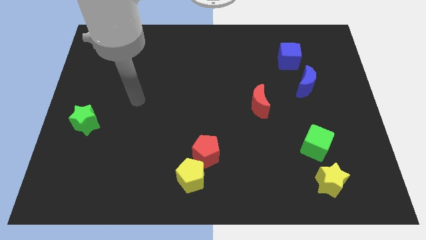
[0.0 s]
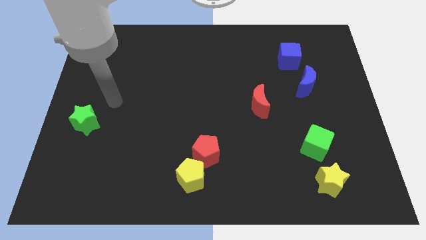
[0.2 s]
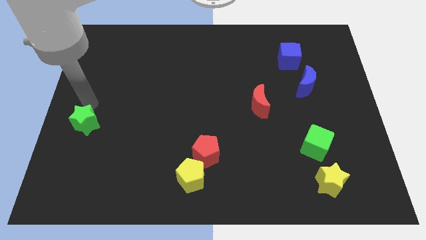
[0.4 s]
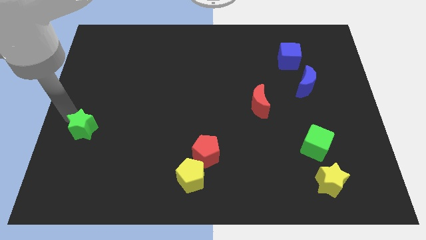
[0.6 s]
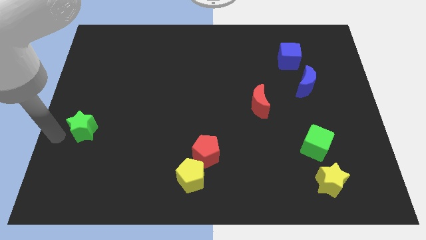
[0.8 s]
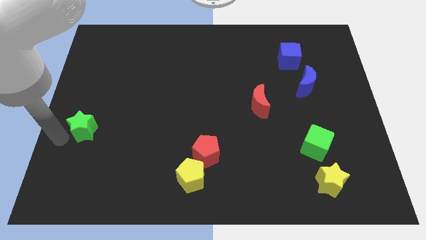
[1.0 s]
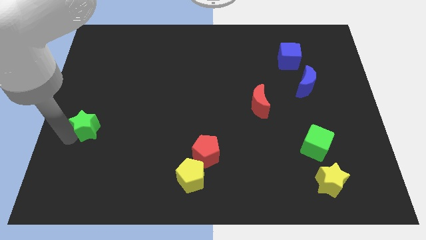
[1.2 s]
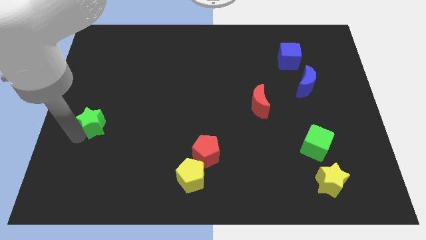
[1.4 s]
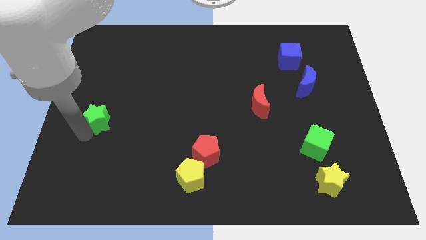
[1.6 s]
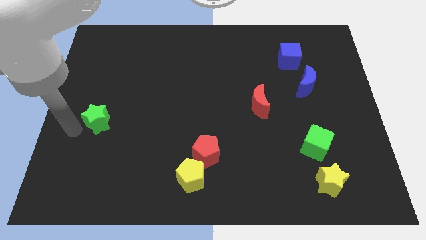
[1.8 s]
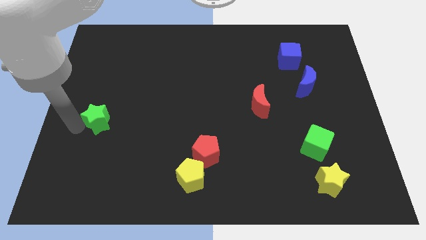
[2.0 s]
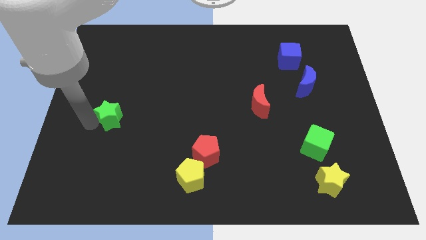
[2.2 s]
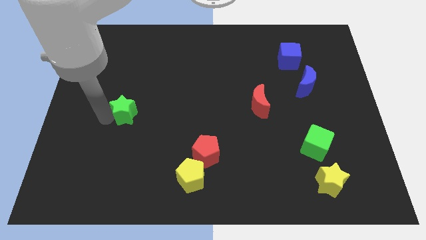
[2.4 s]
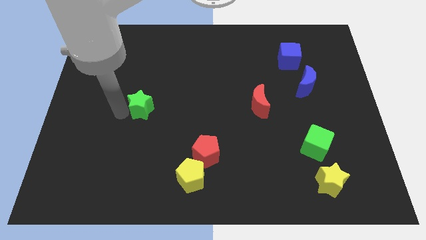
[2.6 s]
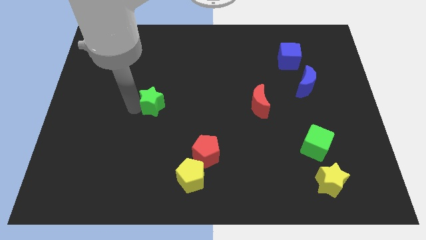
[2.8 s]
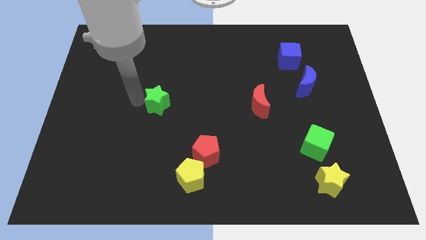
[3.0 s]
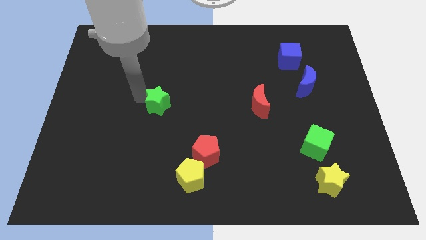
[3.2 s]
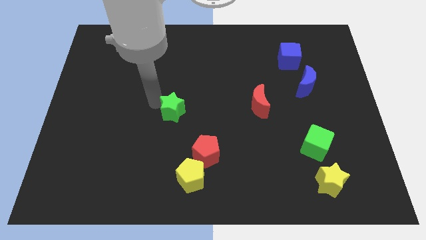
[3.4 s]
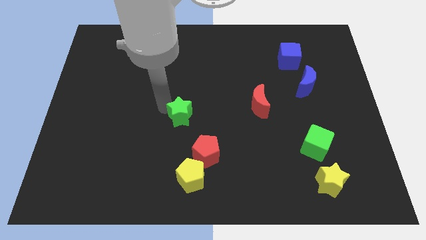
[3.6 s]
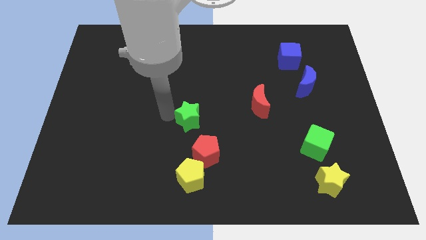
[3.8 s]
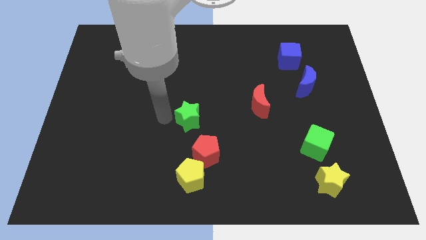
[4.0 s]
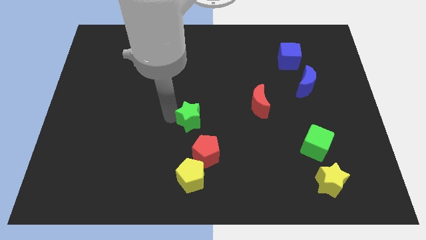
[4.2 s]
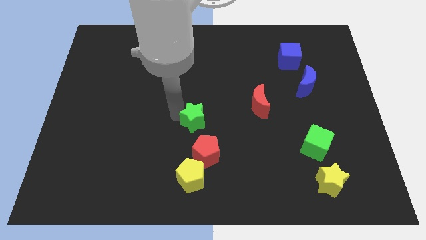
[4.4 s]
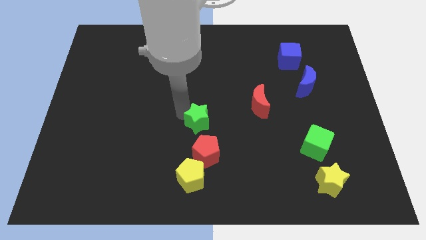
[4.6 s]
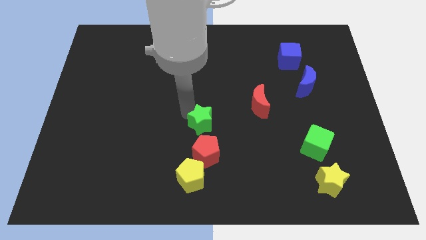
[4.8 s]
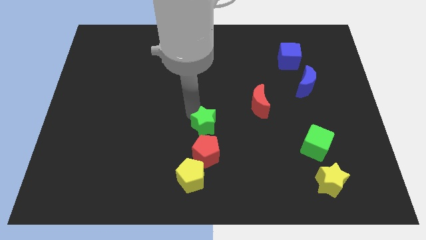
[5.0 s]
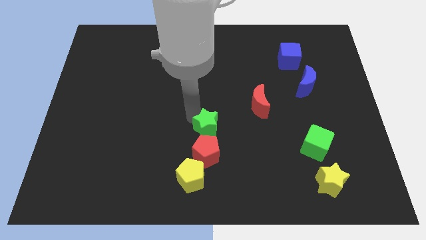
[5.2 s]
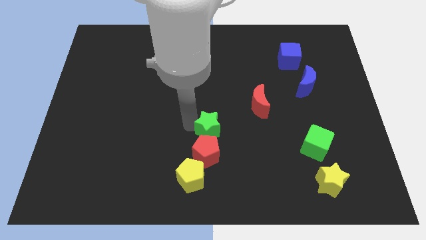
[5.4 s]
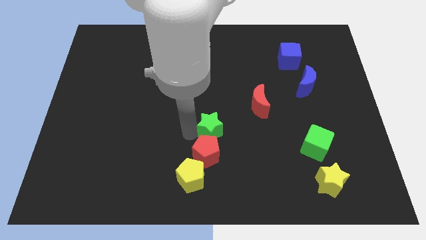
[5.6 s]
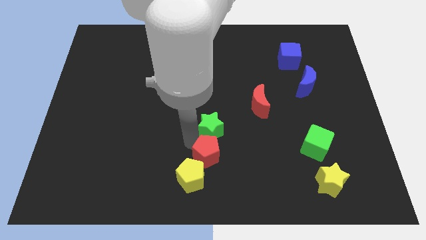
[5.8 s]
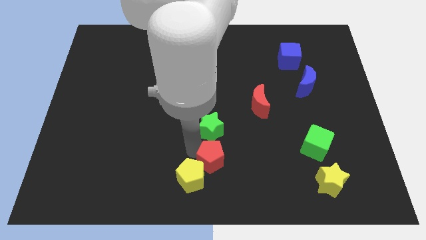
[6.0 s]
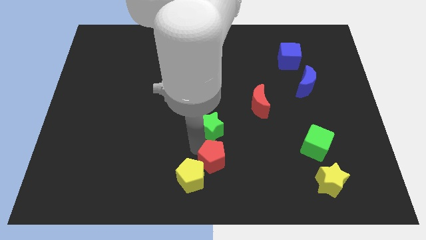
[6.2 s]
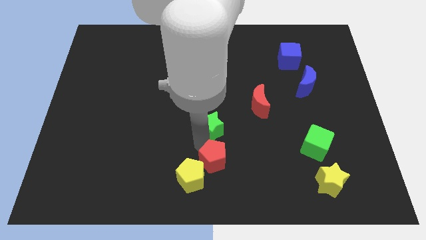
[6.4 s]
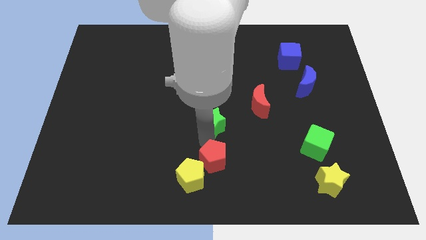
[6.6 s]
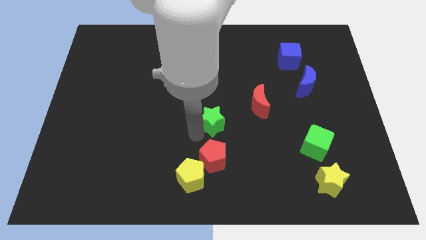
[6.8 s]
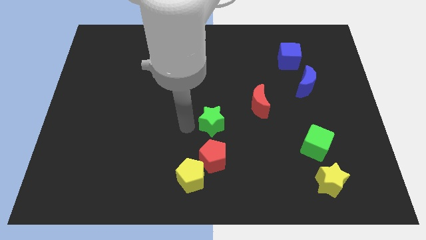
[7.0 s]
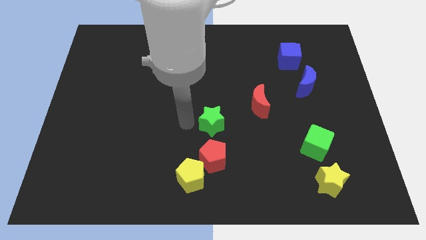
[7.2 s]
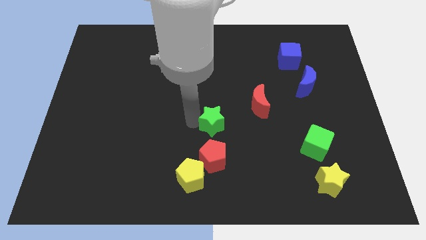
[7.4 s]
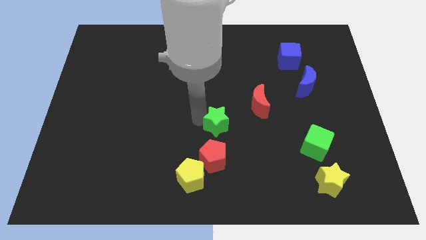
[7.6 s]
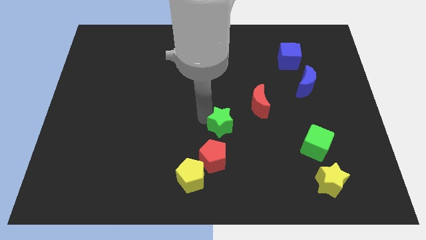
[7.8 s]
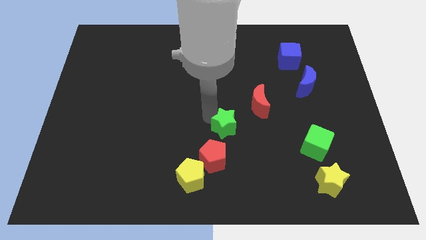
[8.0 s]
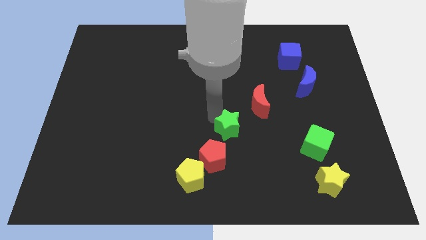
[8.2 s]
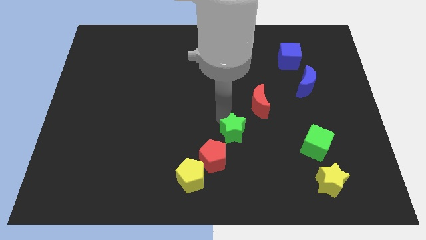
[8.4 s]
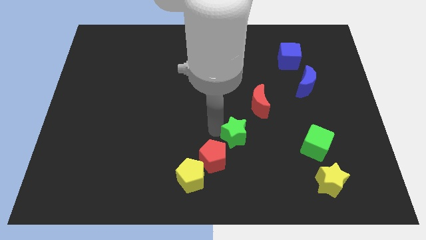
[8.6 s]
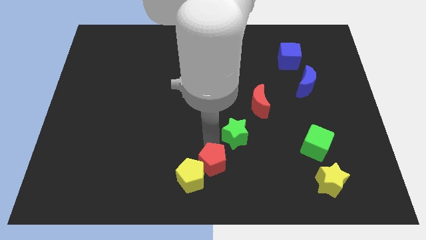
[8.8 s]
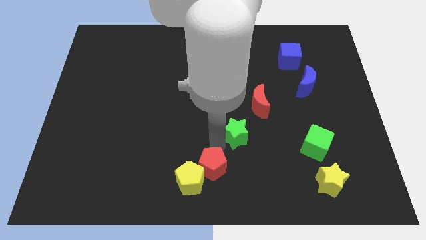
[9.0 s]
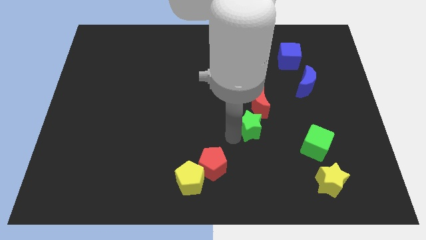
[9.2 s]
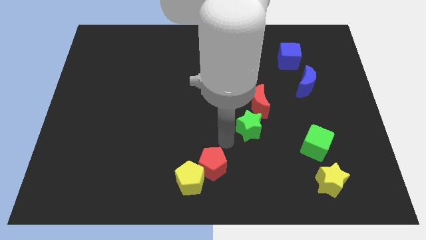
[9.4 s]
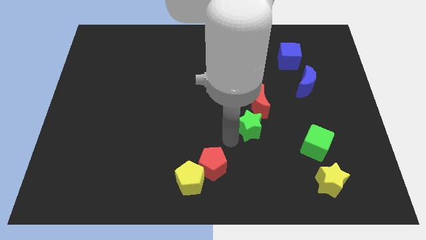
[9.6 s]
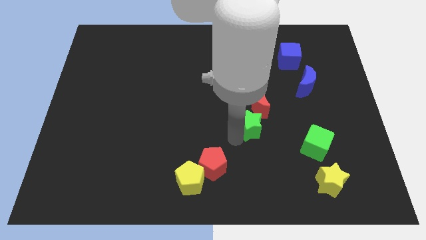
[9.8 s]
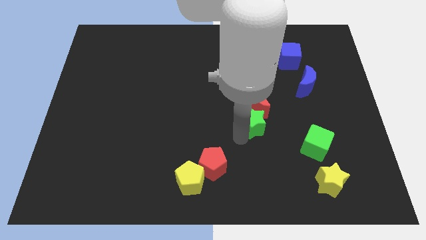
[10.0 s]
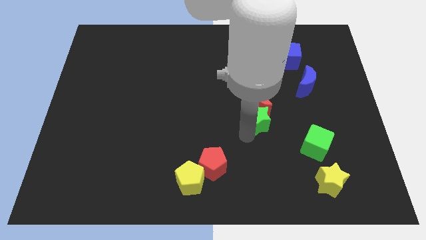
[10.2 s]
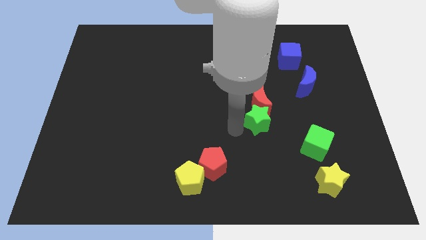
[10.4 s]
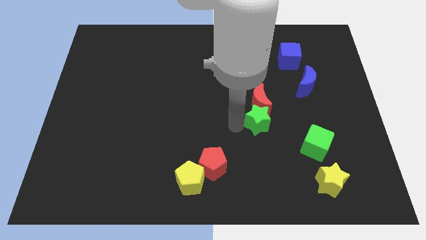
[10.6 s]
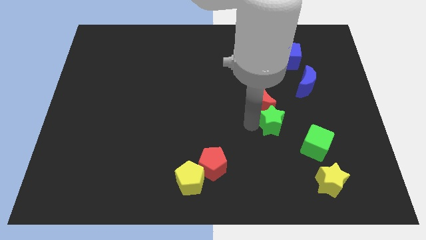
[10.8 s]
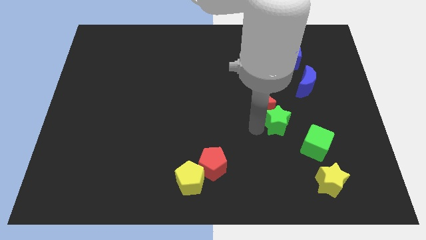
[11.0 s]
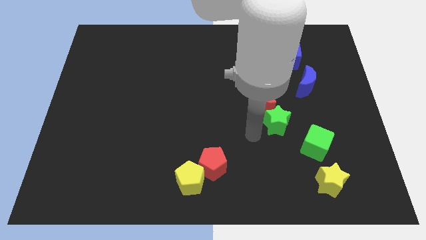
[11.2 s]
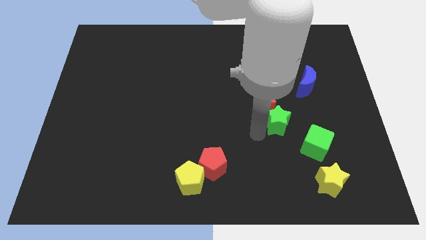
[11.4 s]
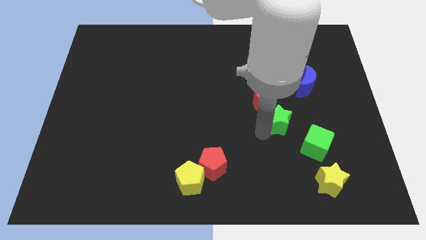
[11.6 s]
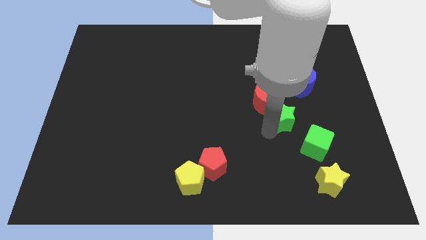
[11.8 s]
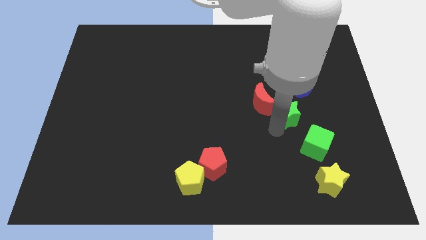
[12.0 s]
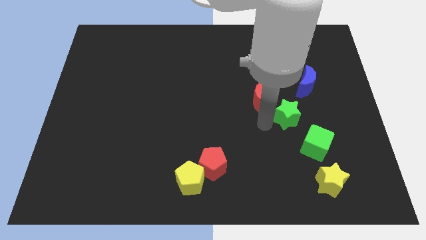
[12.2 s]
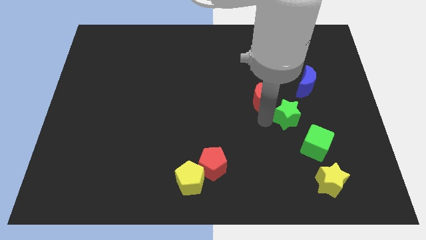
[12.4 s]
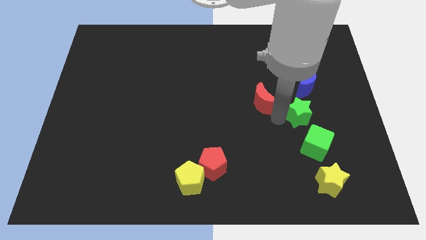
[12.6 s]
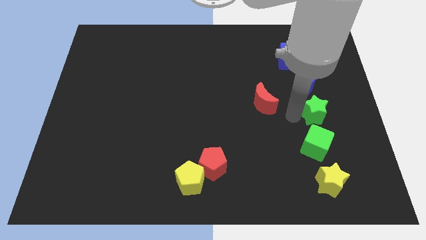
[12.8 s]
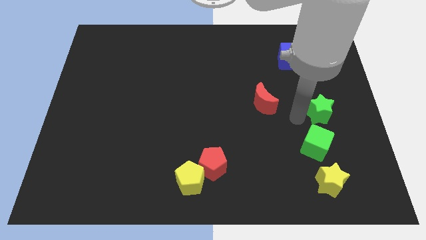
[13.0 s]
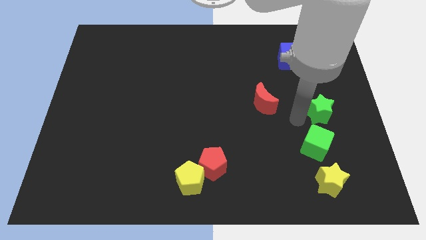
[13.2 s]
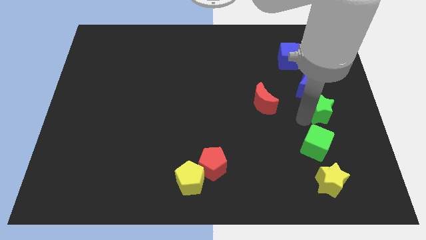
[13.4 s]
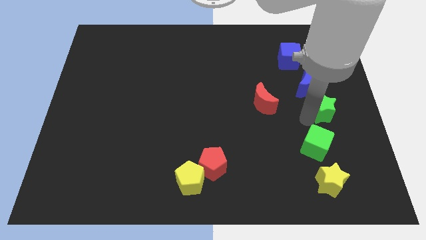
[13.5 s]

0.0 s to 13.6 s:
push the green star to the center right

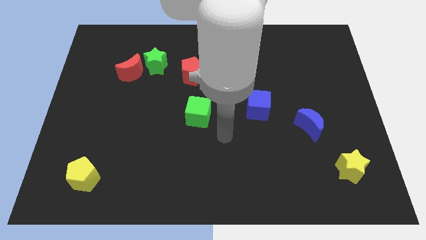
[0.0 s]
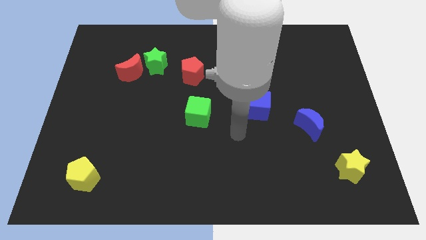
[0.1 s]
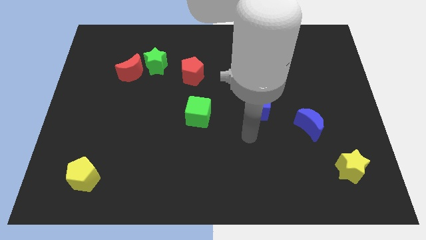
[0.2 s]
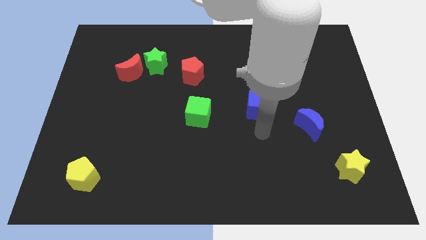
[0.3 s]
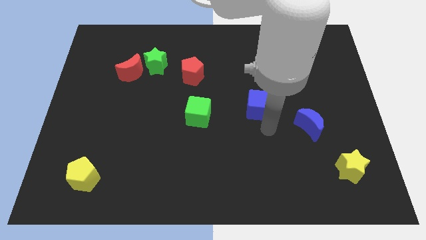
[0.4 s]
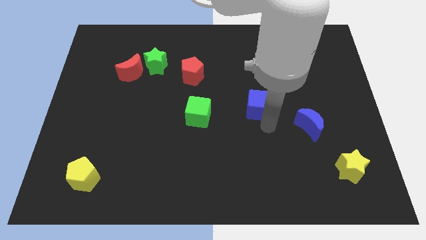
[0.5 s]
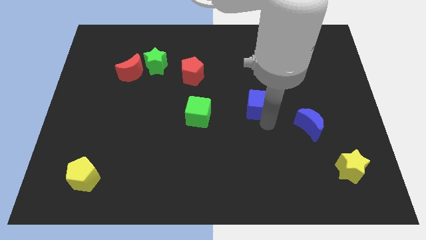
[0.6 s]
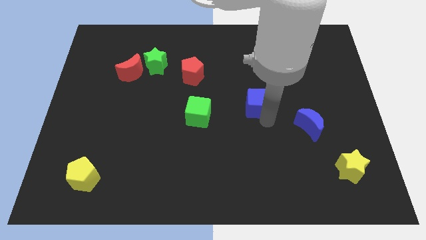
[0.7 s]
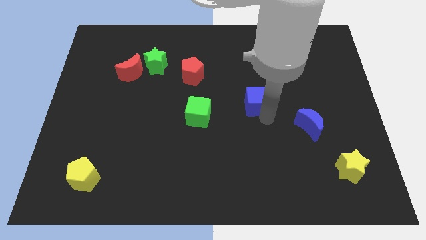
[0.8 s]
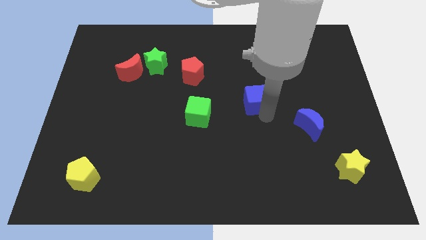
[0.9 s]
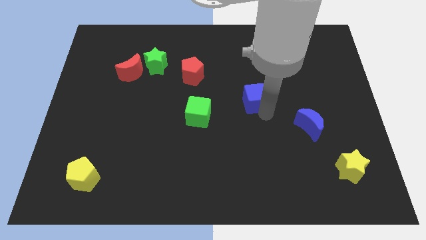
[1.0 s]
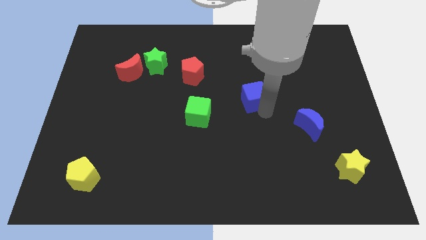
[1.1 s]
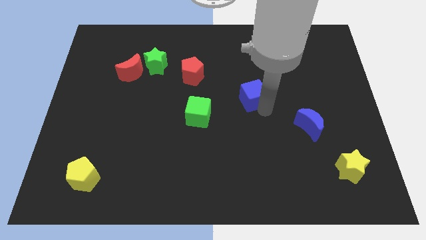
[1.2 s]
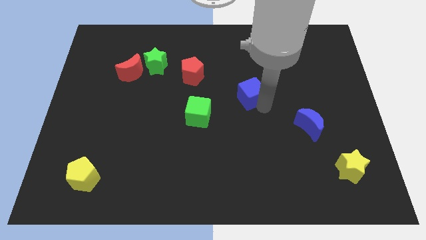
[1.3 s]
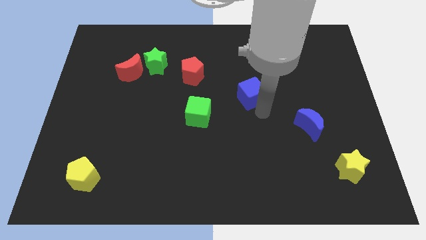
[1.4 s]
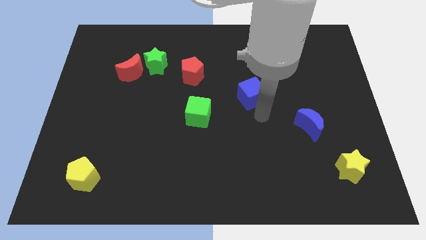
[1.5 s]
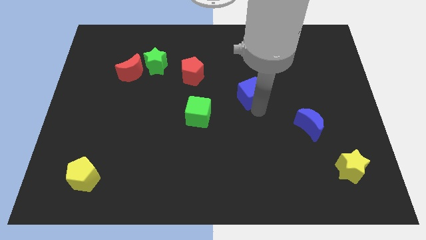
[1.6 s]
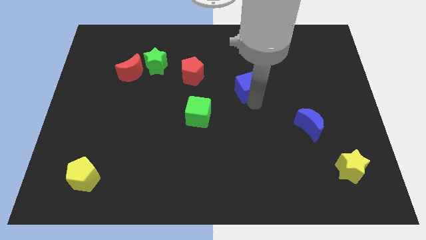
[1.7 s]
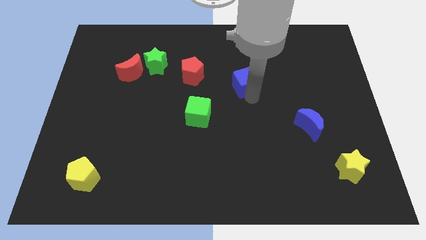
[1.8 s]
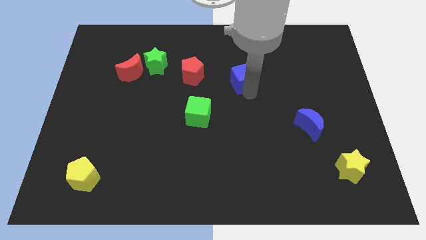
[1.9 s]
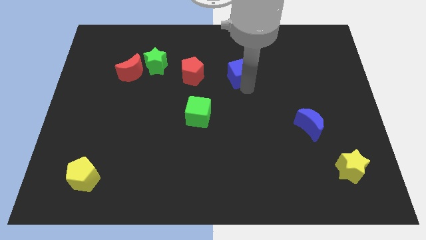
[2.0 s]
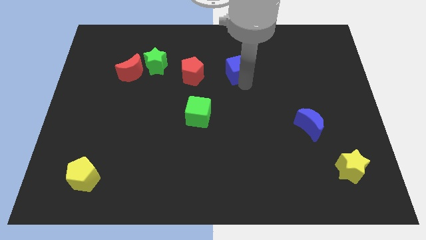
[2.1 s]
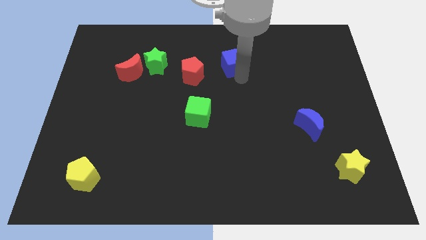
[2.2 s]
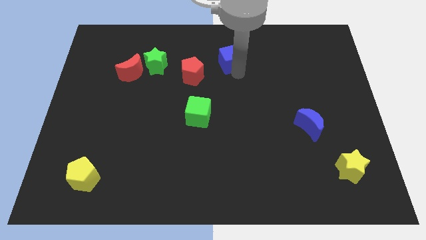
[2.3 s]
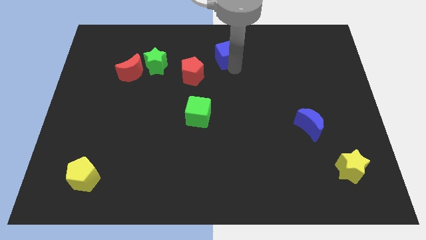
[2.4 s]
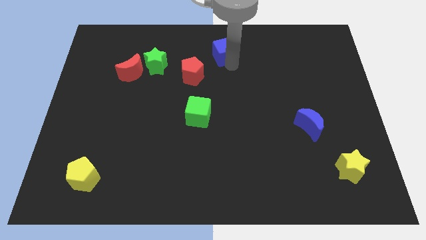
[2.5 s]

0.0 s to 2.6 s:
slide the blue cube to the top side
